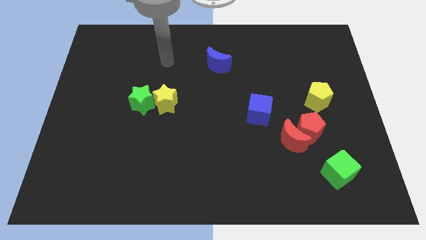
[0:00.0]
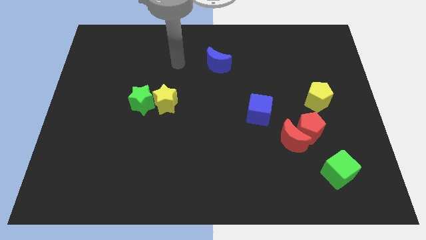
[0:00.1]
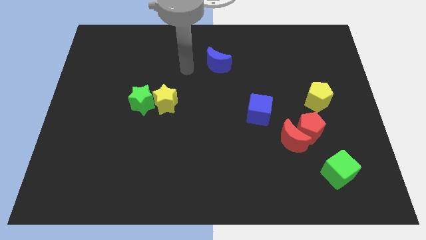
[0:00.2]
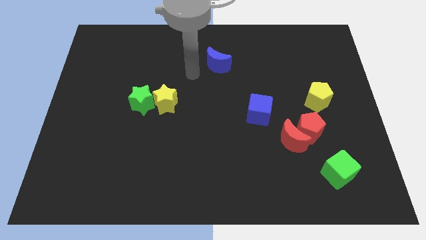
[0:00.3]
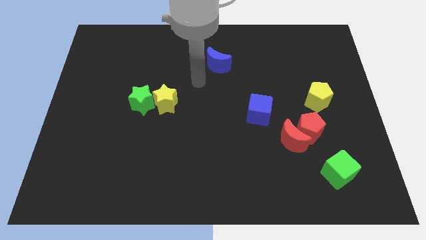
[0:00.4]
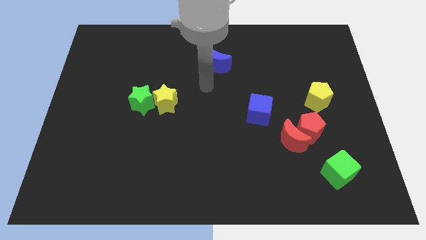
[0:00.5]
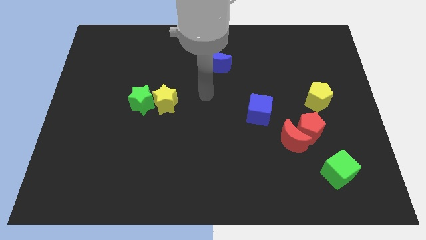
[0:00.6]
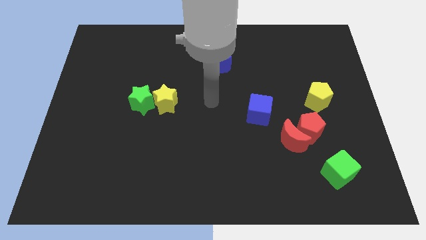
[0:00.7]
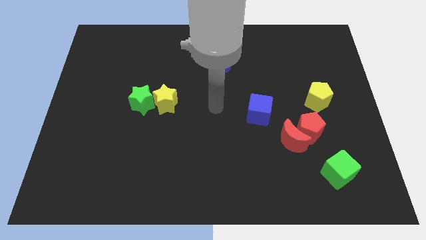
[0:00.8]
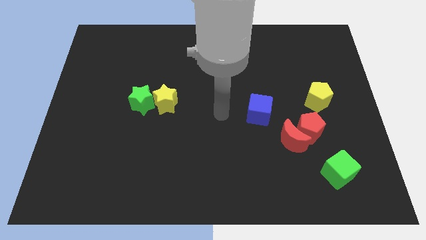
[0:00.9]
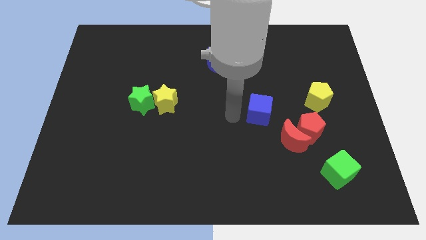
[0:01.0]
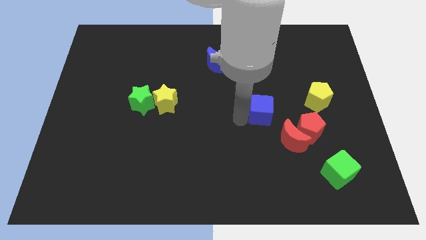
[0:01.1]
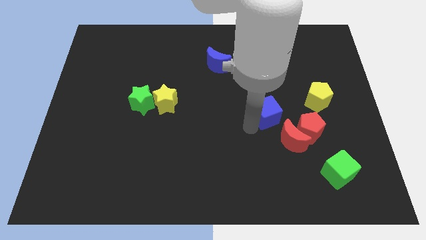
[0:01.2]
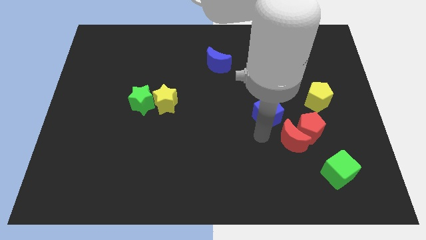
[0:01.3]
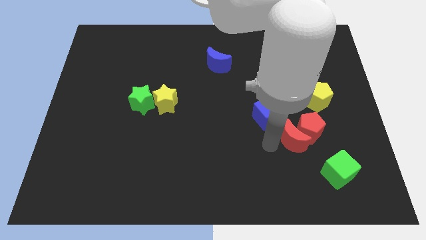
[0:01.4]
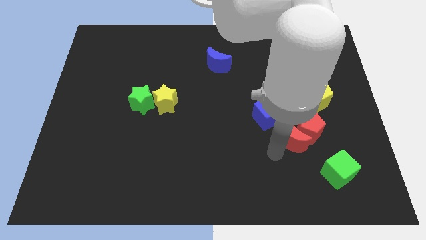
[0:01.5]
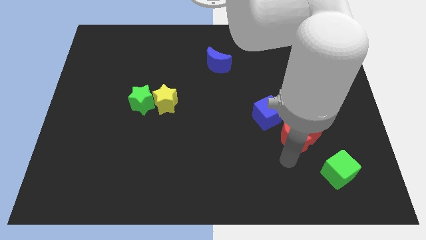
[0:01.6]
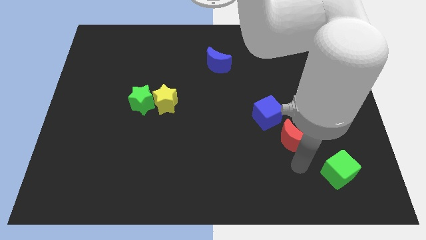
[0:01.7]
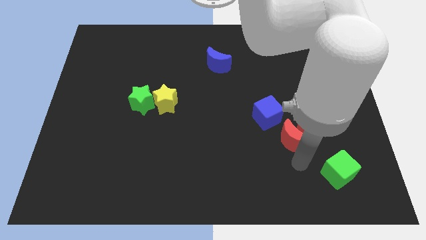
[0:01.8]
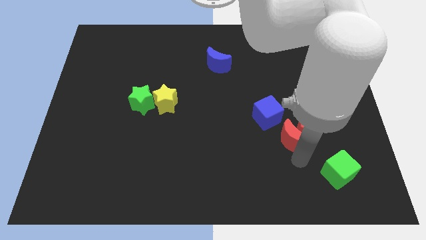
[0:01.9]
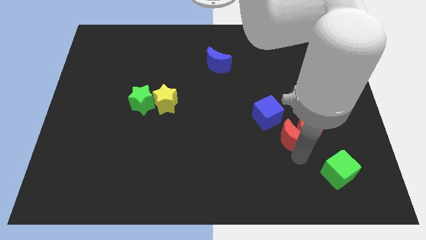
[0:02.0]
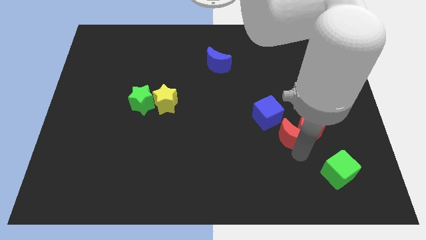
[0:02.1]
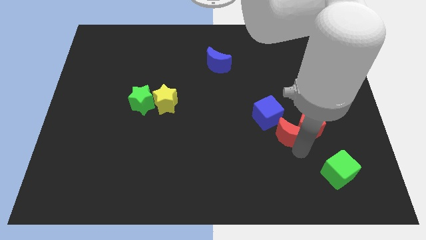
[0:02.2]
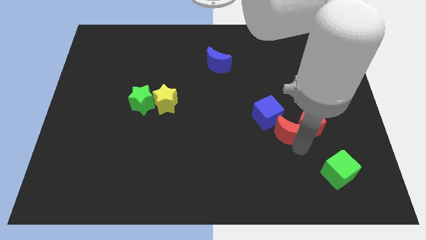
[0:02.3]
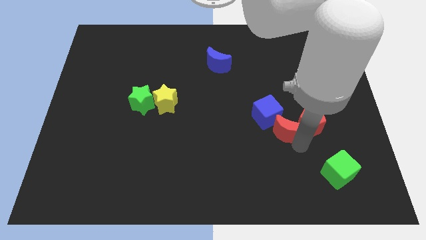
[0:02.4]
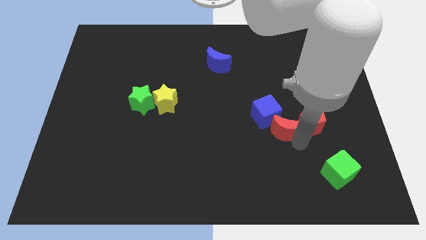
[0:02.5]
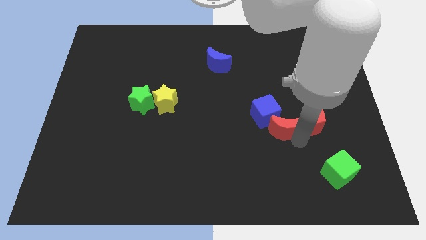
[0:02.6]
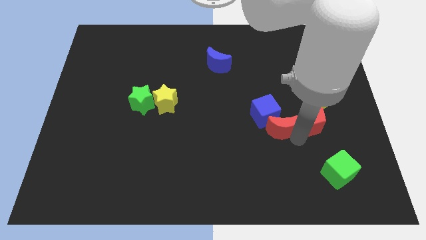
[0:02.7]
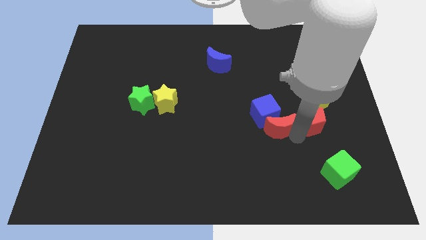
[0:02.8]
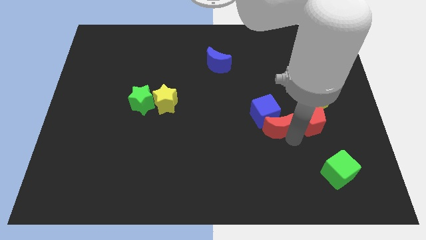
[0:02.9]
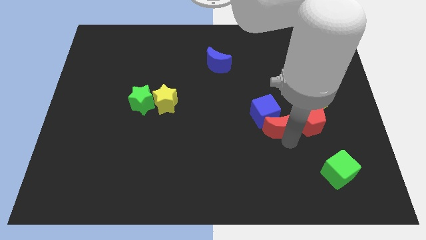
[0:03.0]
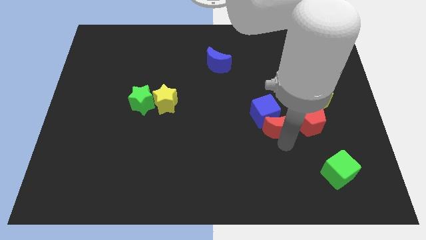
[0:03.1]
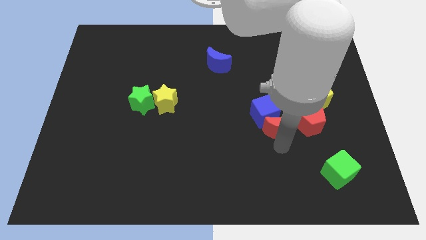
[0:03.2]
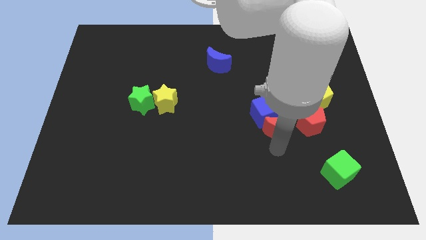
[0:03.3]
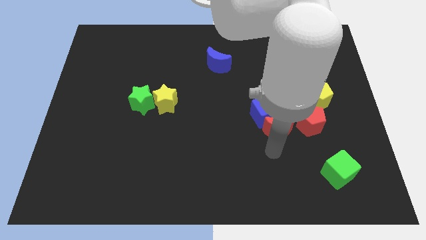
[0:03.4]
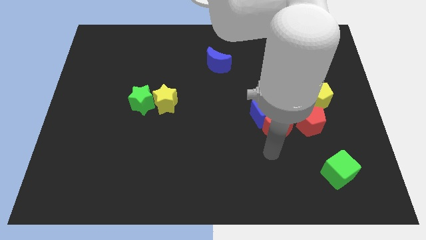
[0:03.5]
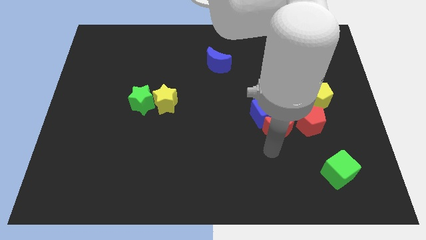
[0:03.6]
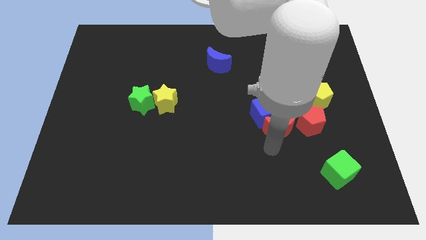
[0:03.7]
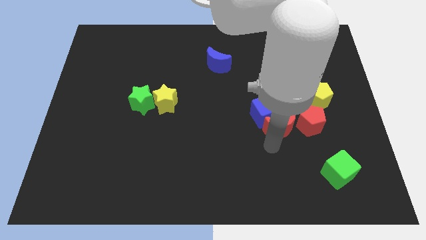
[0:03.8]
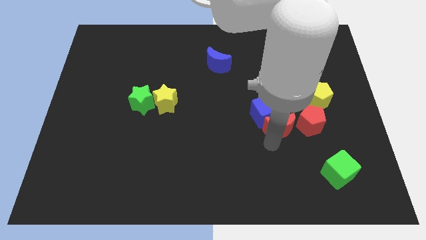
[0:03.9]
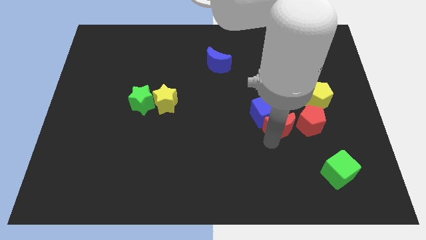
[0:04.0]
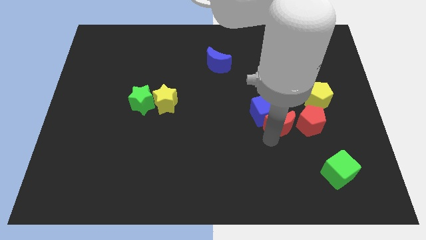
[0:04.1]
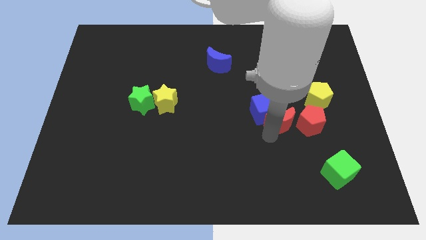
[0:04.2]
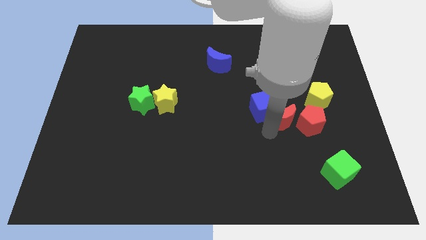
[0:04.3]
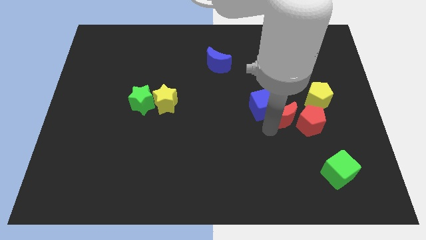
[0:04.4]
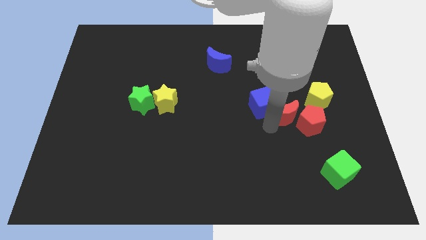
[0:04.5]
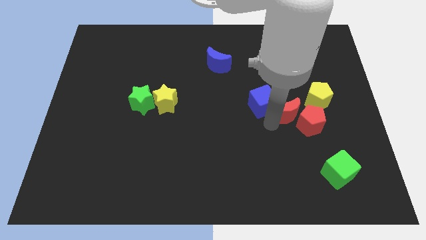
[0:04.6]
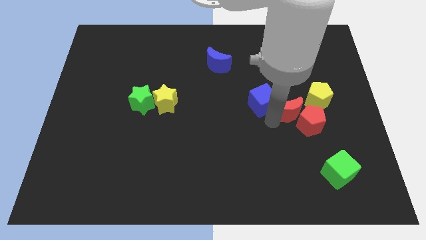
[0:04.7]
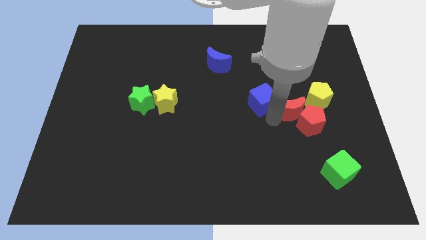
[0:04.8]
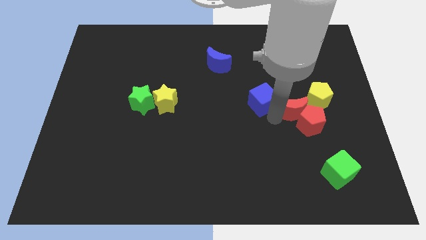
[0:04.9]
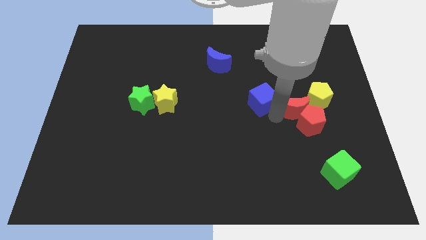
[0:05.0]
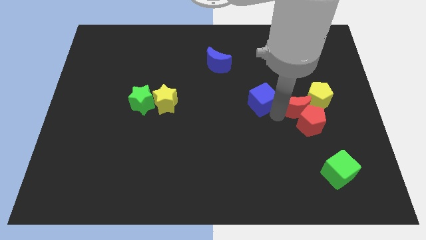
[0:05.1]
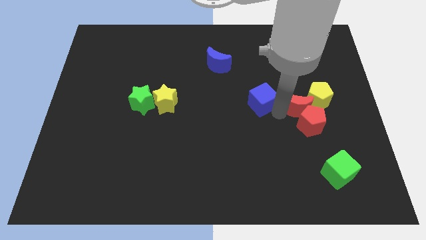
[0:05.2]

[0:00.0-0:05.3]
move the red moon towards the yellow pentagon

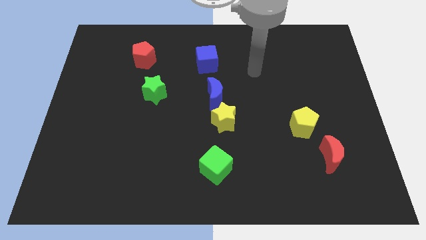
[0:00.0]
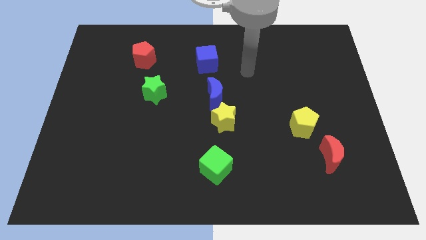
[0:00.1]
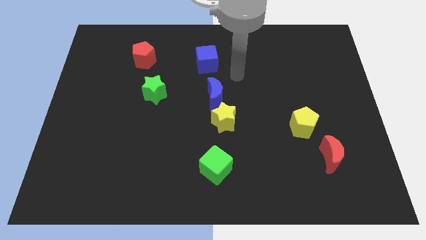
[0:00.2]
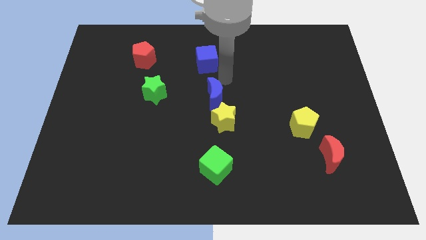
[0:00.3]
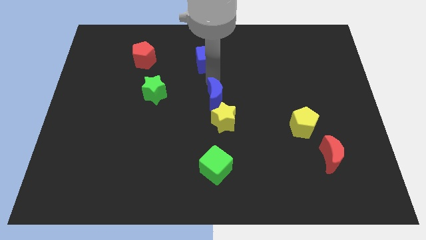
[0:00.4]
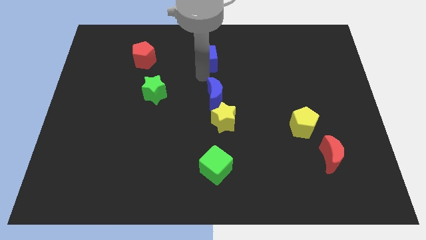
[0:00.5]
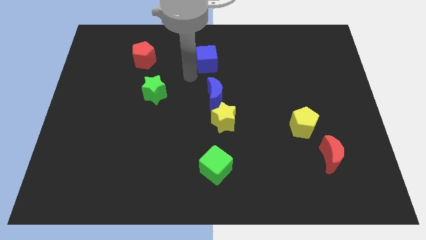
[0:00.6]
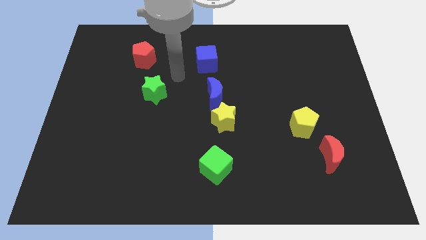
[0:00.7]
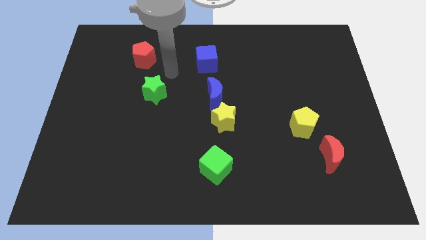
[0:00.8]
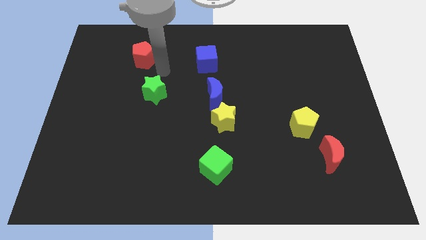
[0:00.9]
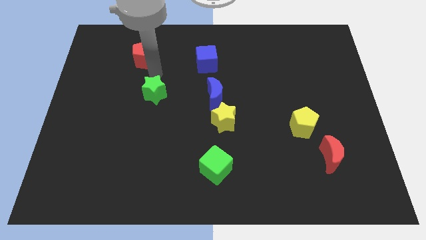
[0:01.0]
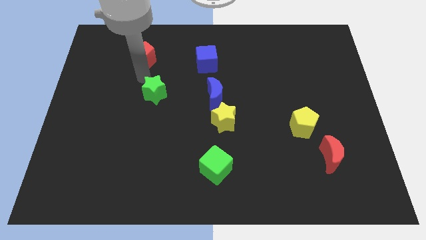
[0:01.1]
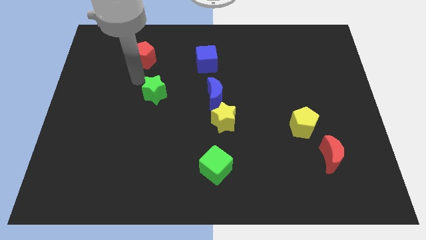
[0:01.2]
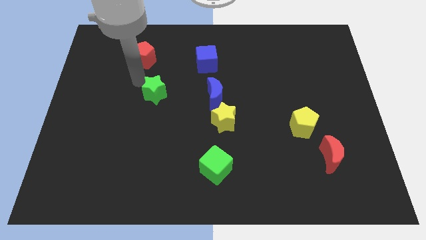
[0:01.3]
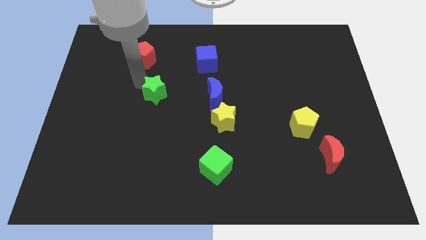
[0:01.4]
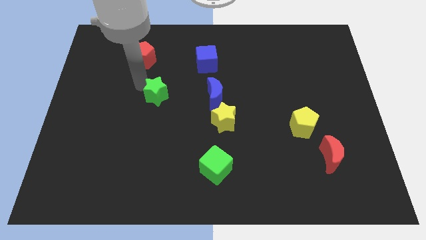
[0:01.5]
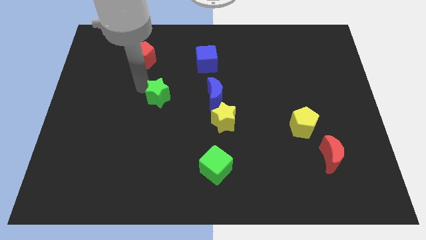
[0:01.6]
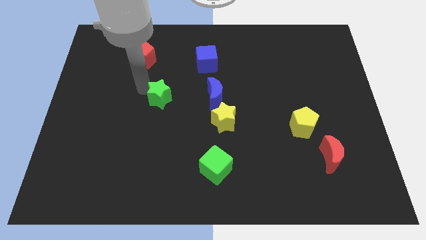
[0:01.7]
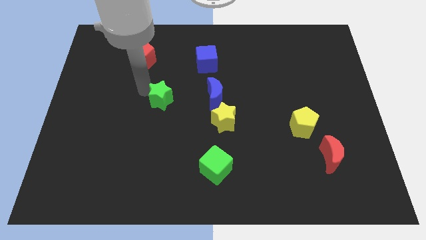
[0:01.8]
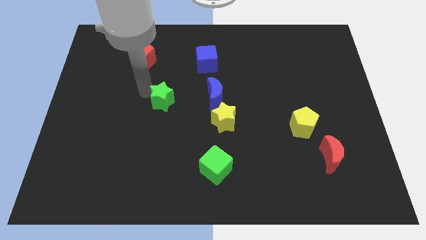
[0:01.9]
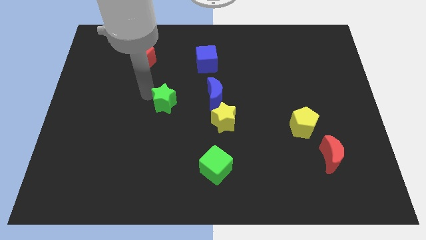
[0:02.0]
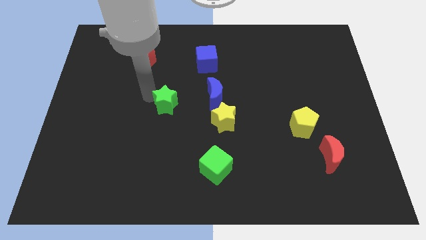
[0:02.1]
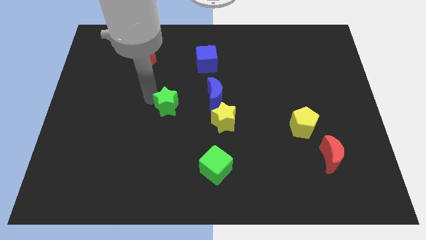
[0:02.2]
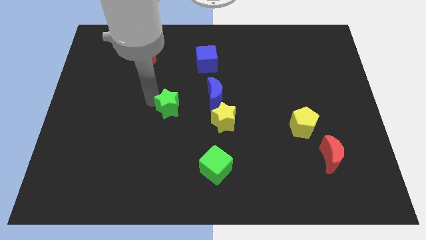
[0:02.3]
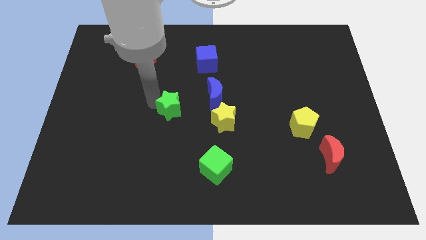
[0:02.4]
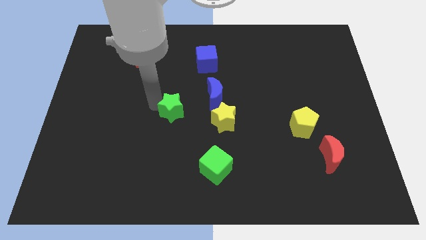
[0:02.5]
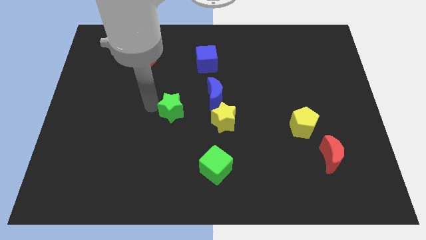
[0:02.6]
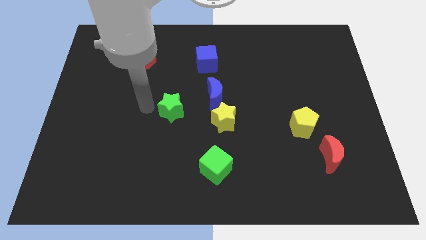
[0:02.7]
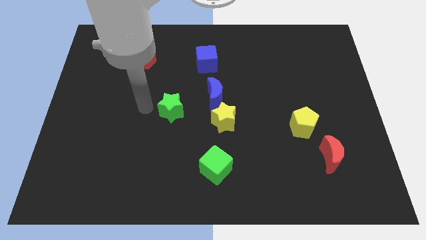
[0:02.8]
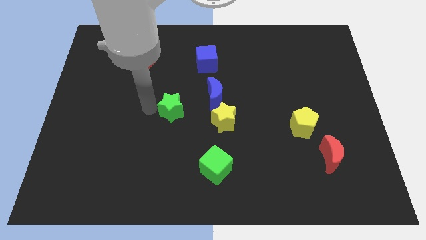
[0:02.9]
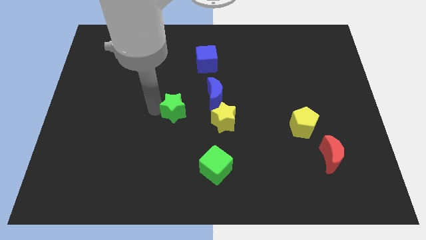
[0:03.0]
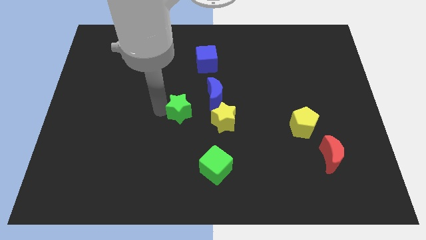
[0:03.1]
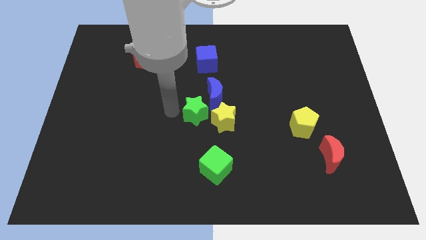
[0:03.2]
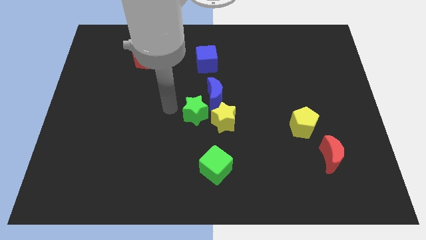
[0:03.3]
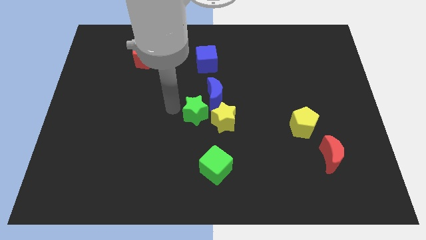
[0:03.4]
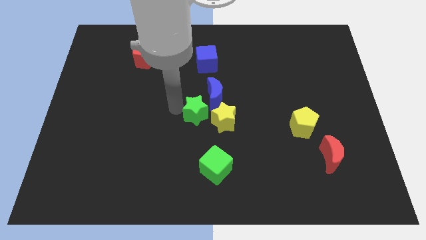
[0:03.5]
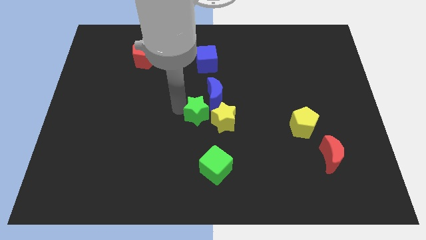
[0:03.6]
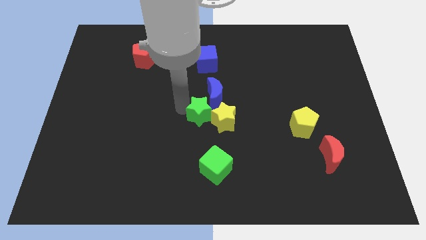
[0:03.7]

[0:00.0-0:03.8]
move the green star close to the yellow star
